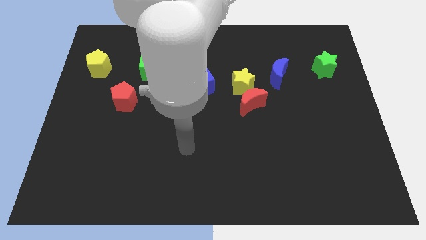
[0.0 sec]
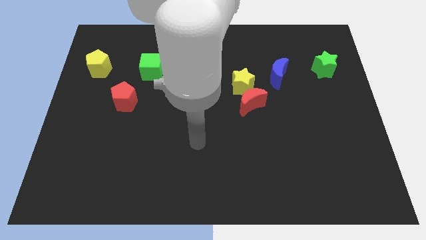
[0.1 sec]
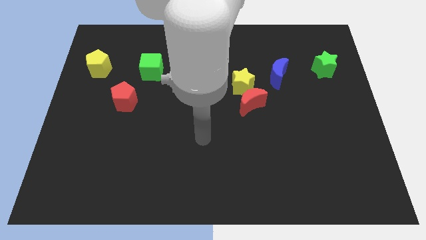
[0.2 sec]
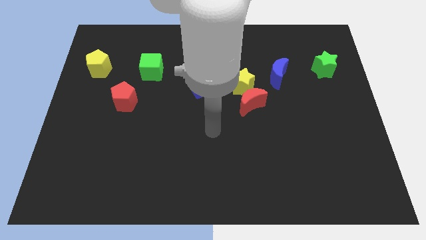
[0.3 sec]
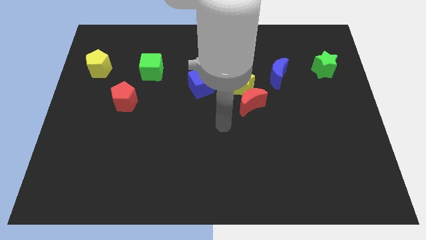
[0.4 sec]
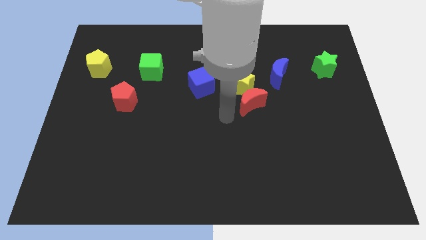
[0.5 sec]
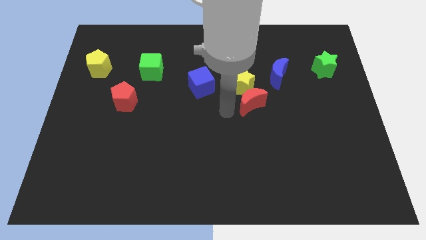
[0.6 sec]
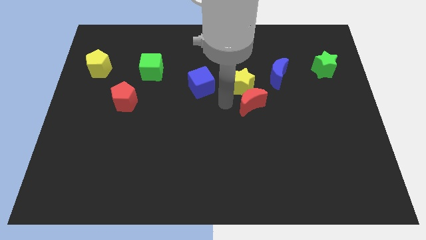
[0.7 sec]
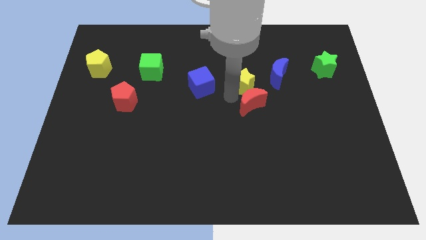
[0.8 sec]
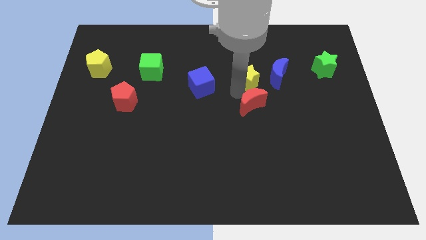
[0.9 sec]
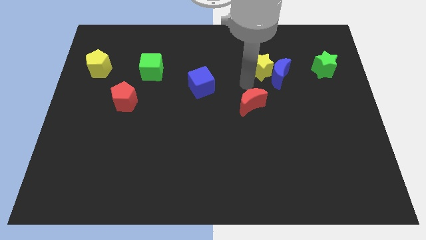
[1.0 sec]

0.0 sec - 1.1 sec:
move the red moon away from the yellow star

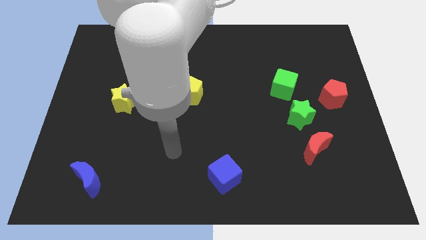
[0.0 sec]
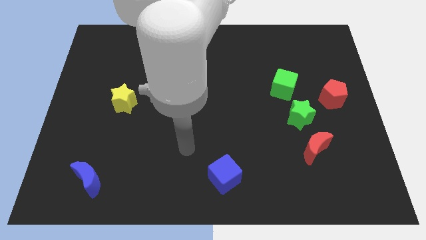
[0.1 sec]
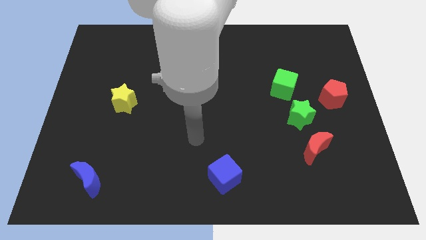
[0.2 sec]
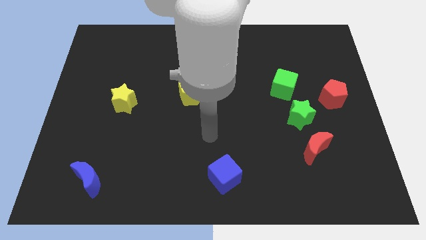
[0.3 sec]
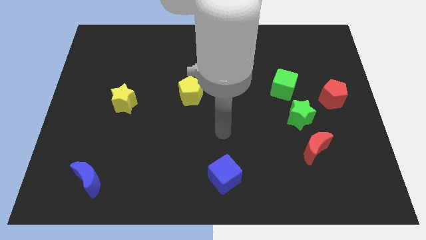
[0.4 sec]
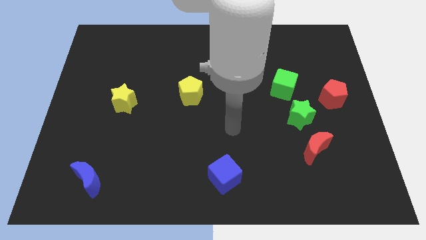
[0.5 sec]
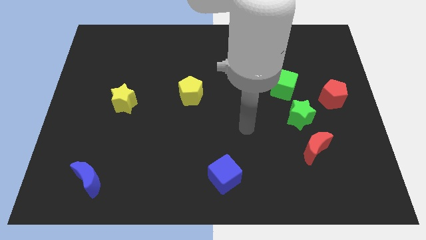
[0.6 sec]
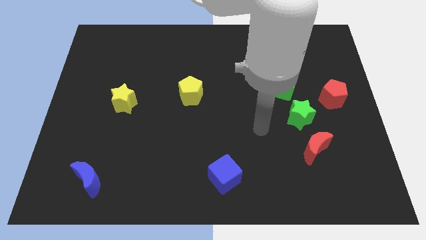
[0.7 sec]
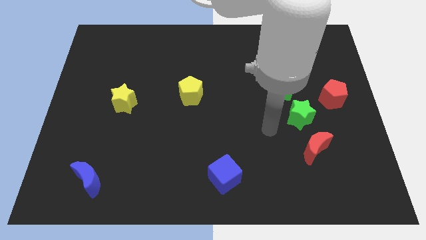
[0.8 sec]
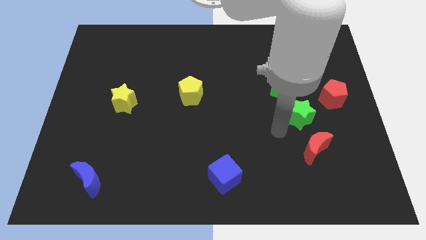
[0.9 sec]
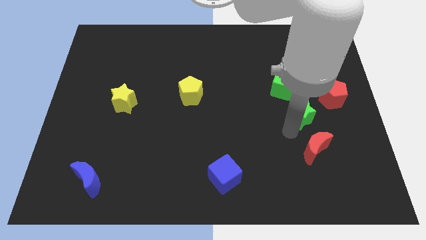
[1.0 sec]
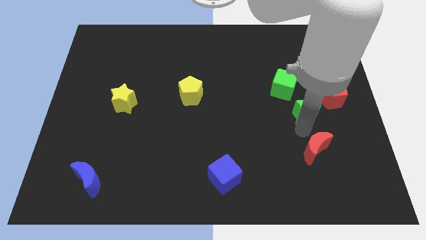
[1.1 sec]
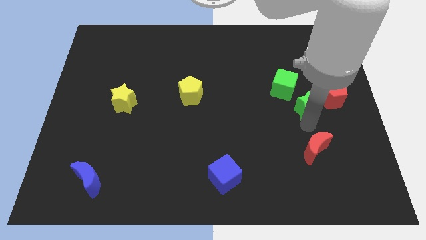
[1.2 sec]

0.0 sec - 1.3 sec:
separate the red moon from the green star

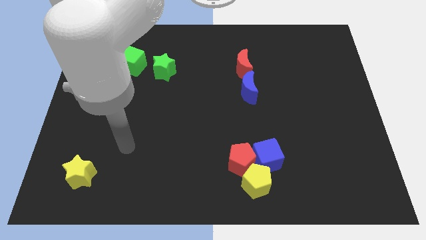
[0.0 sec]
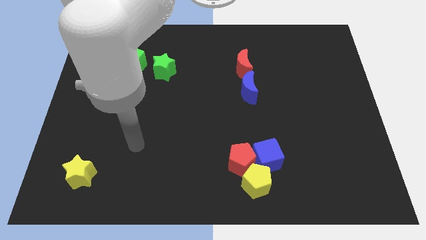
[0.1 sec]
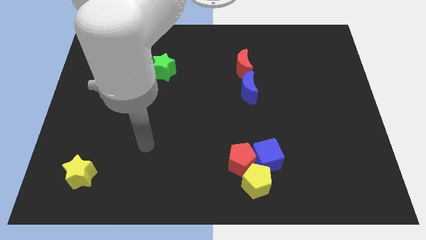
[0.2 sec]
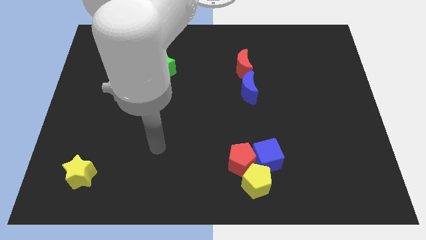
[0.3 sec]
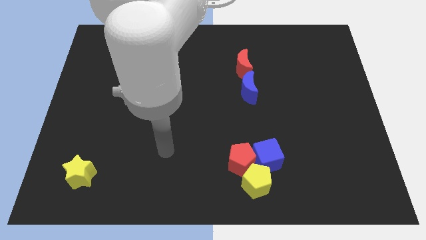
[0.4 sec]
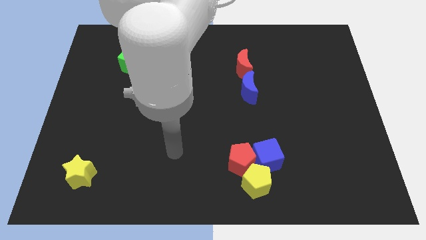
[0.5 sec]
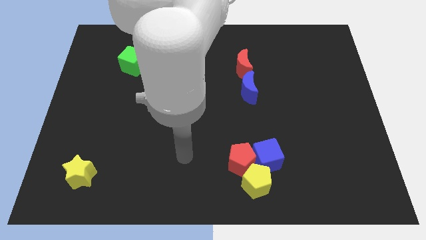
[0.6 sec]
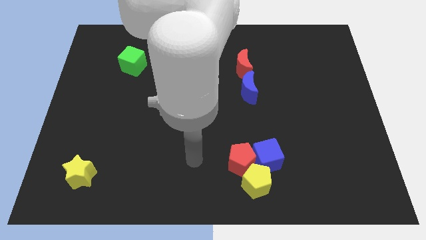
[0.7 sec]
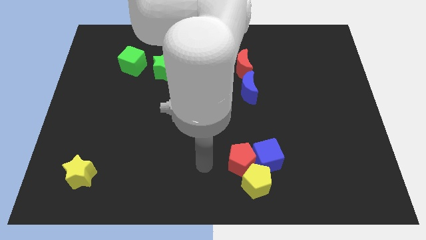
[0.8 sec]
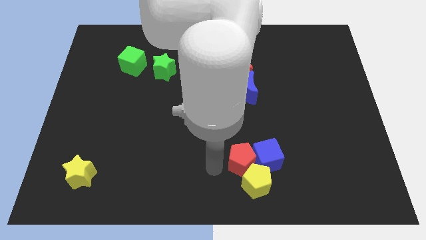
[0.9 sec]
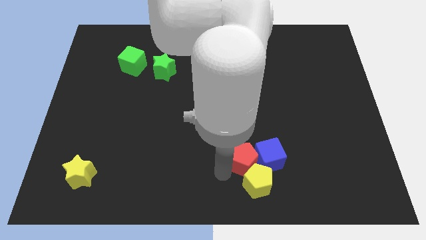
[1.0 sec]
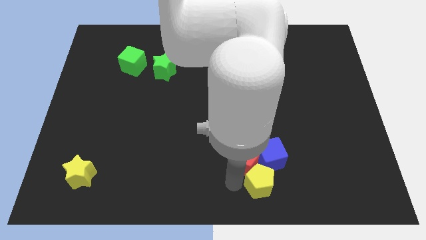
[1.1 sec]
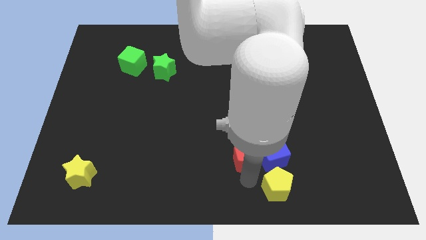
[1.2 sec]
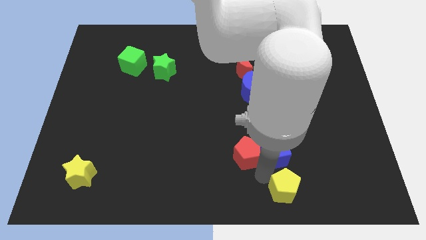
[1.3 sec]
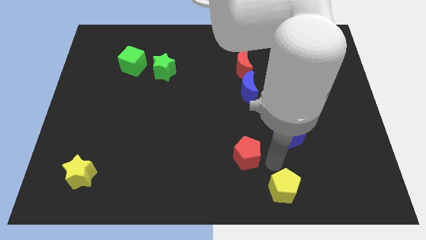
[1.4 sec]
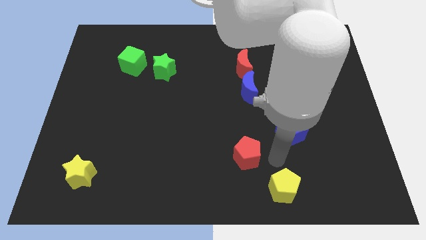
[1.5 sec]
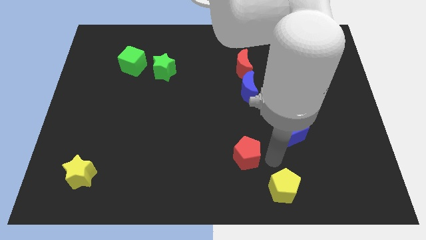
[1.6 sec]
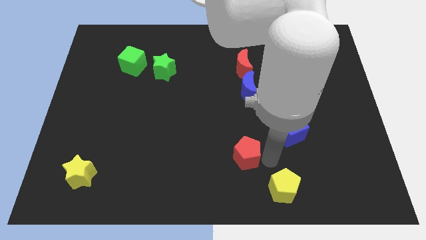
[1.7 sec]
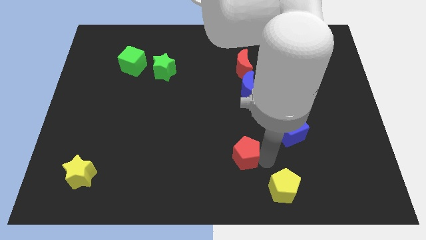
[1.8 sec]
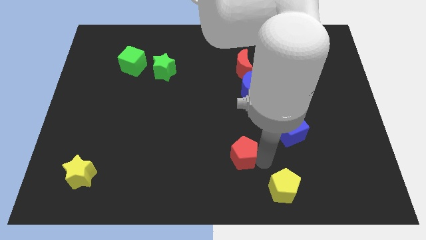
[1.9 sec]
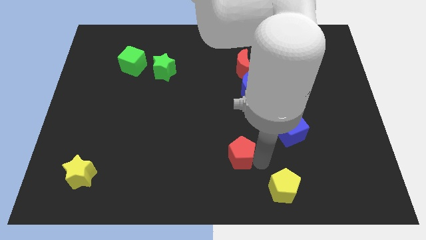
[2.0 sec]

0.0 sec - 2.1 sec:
move the red pentagon away from the blue cube and yellow pentagon

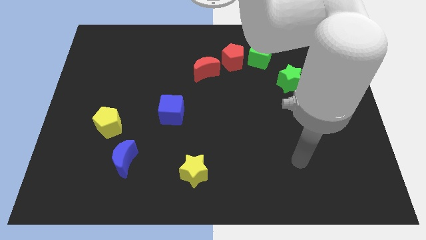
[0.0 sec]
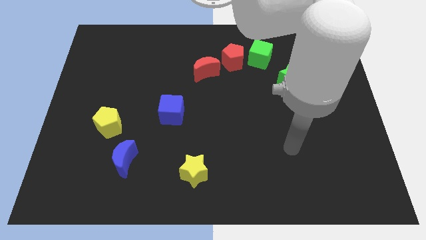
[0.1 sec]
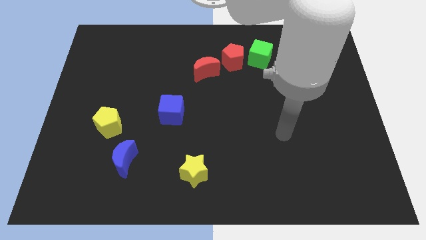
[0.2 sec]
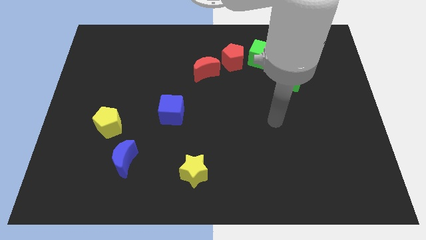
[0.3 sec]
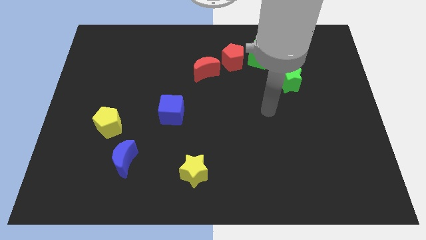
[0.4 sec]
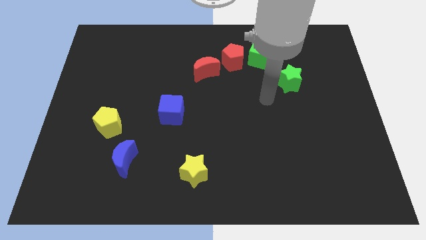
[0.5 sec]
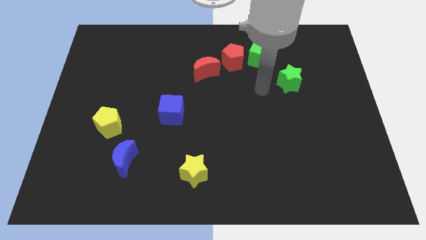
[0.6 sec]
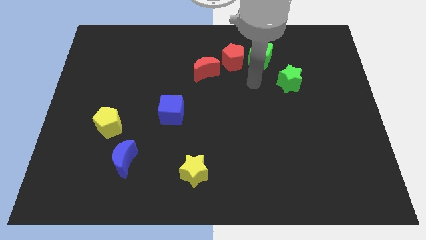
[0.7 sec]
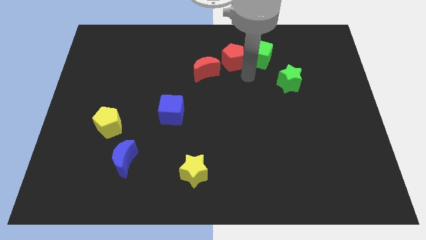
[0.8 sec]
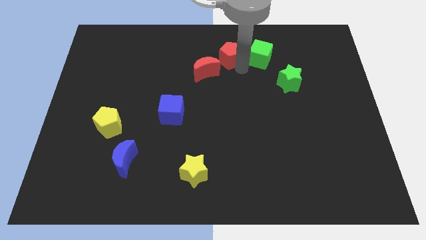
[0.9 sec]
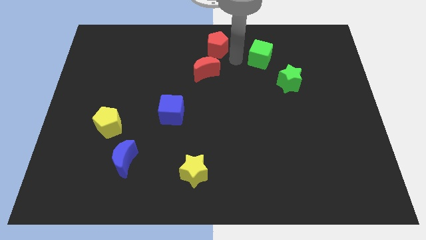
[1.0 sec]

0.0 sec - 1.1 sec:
separate the green cube from the red pentagon

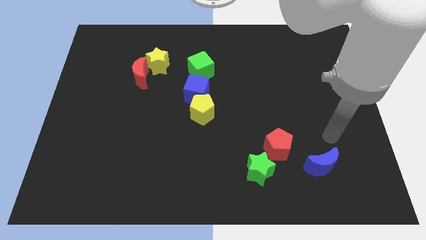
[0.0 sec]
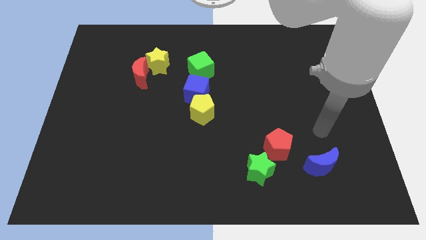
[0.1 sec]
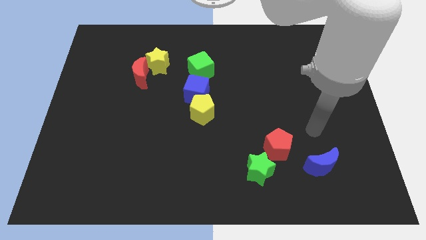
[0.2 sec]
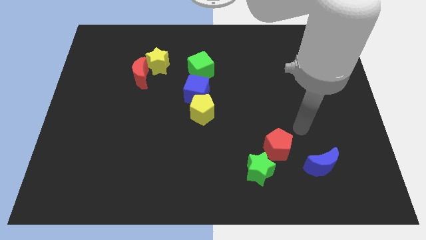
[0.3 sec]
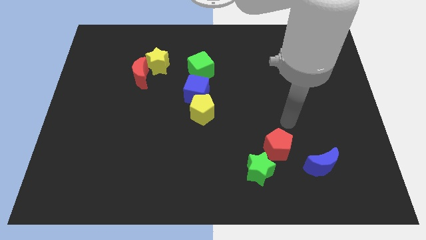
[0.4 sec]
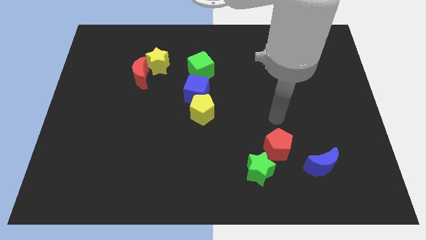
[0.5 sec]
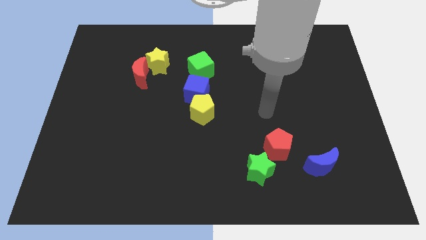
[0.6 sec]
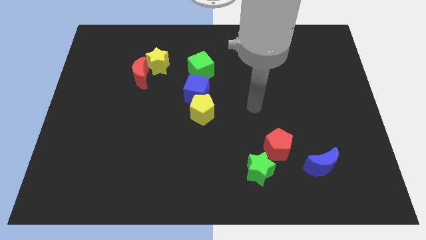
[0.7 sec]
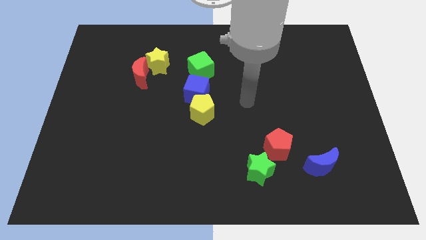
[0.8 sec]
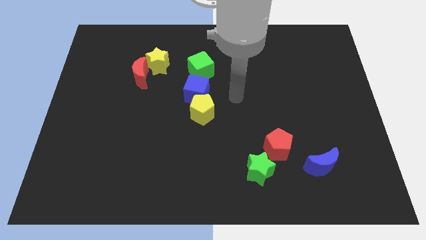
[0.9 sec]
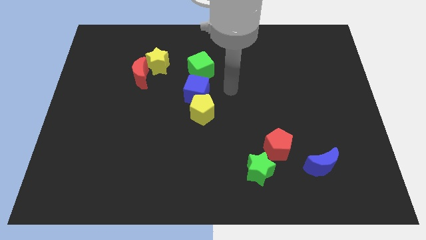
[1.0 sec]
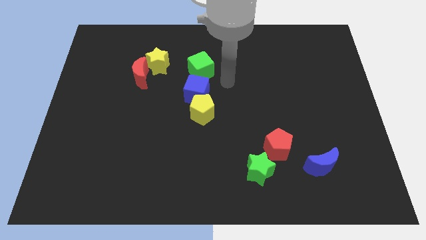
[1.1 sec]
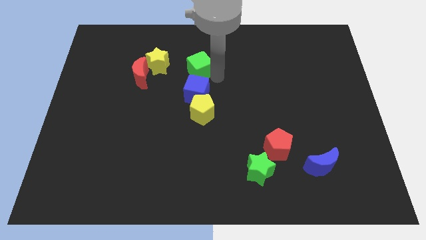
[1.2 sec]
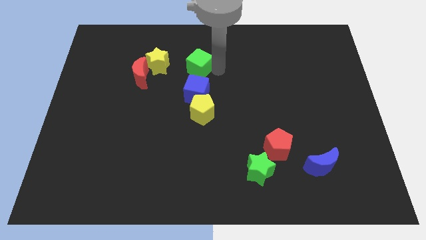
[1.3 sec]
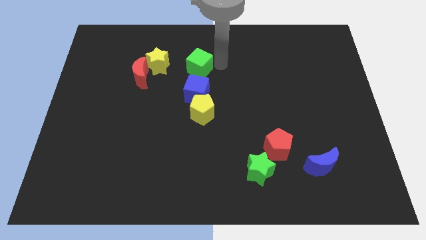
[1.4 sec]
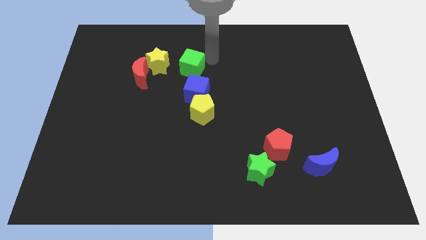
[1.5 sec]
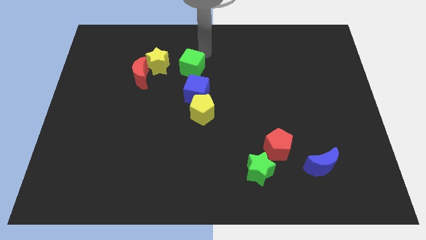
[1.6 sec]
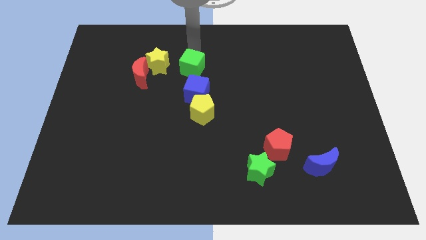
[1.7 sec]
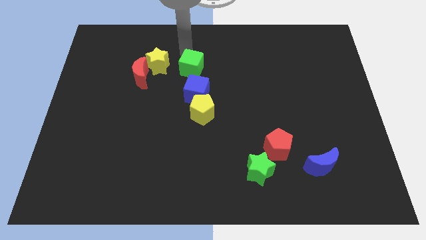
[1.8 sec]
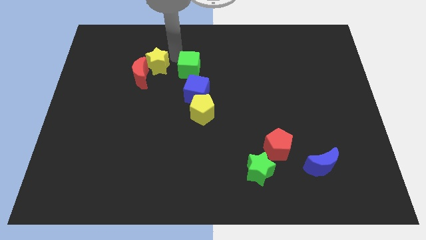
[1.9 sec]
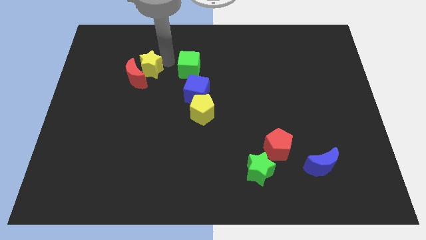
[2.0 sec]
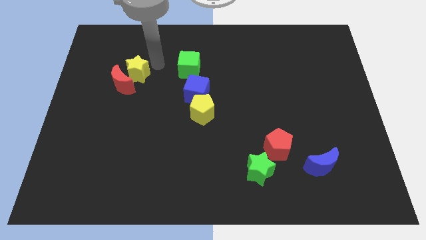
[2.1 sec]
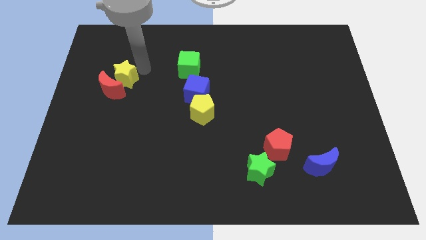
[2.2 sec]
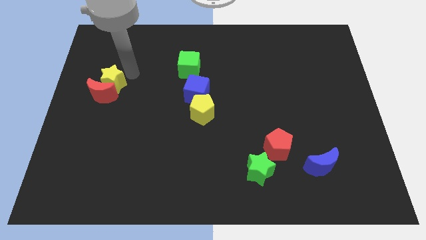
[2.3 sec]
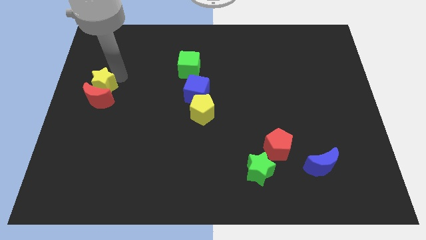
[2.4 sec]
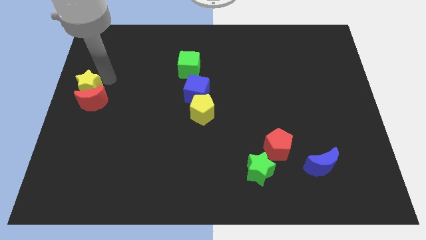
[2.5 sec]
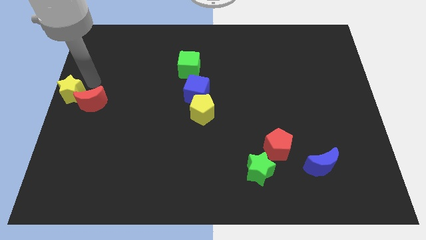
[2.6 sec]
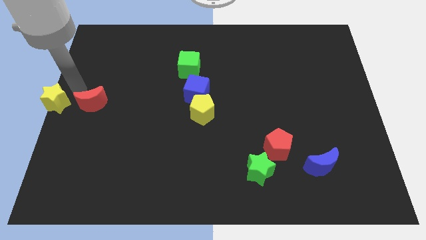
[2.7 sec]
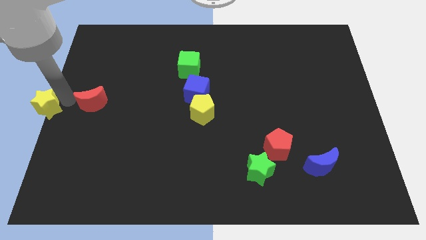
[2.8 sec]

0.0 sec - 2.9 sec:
pull the red moon apart from the yellow star

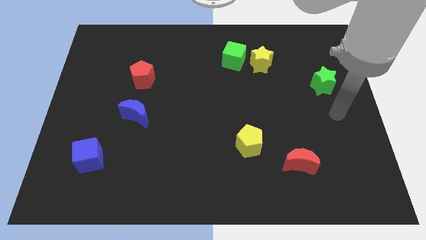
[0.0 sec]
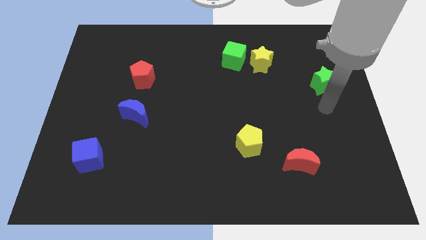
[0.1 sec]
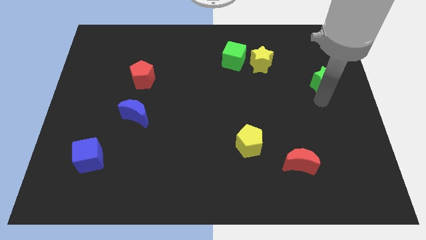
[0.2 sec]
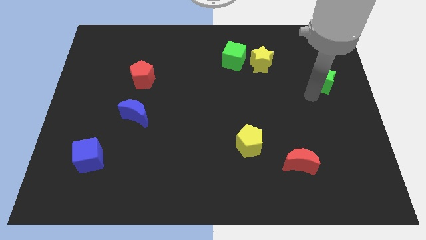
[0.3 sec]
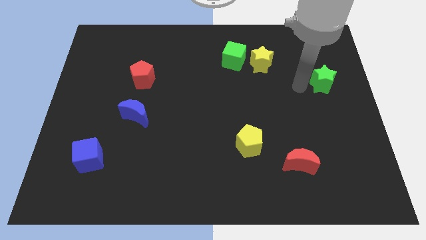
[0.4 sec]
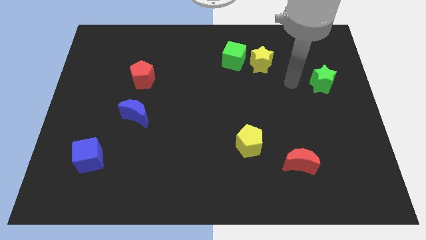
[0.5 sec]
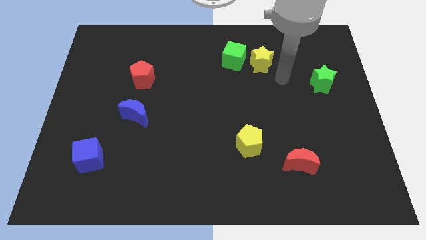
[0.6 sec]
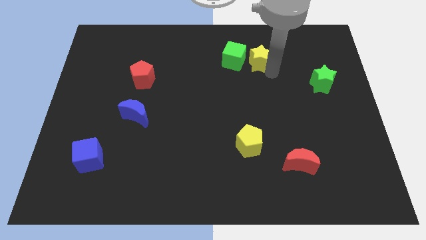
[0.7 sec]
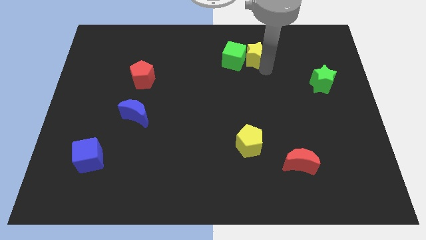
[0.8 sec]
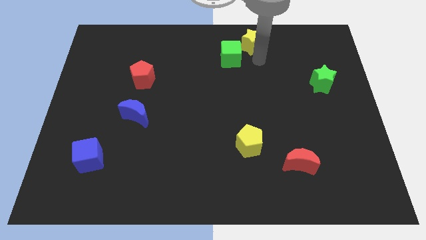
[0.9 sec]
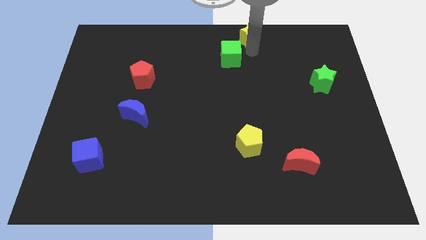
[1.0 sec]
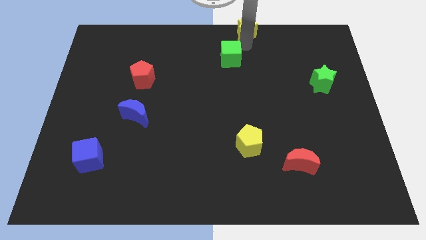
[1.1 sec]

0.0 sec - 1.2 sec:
pull the green cube apart from the yellow star
